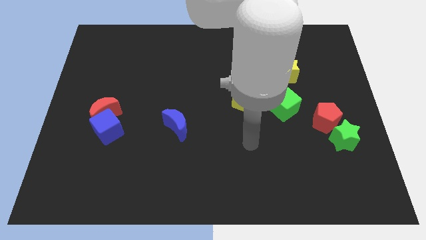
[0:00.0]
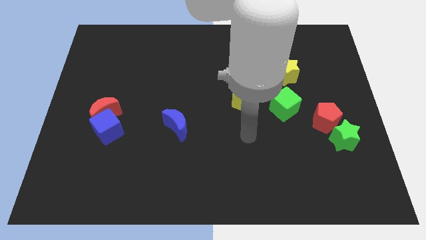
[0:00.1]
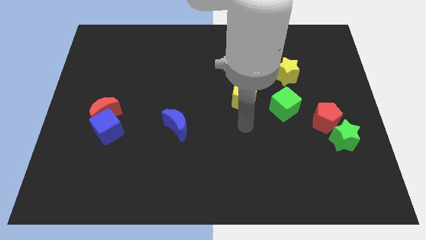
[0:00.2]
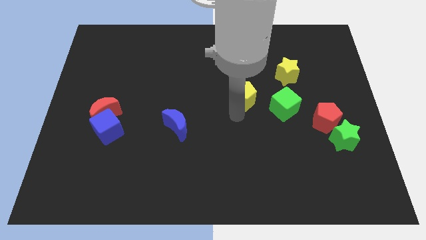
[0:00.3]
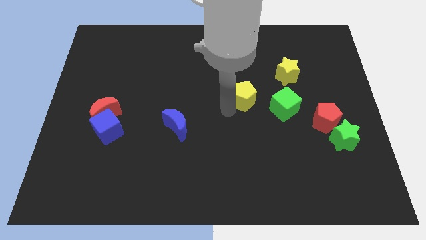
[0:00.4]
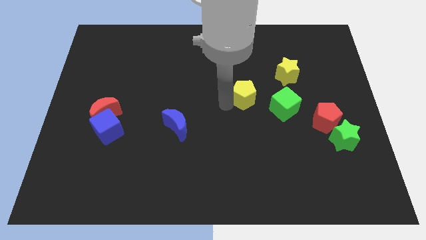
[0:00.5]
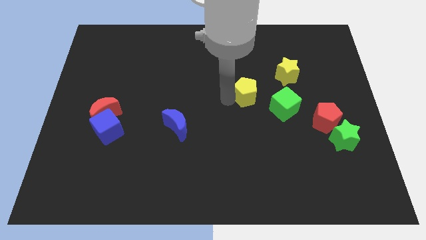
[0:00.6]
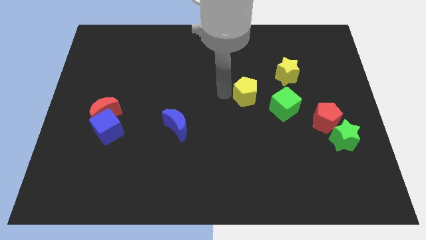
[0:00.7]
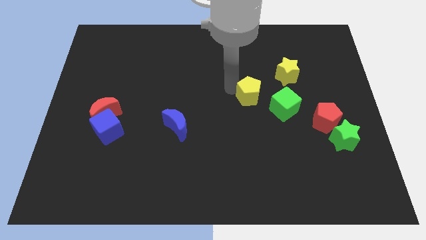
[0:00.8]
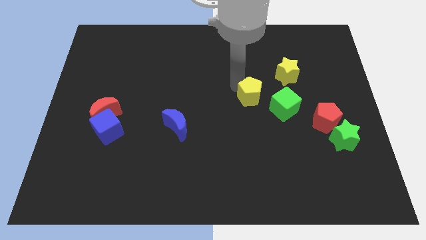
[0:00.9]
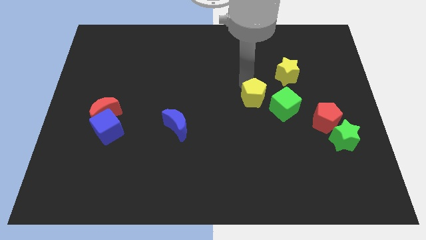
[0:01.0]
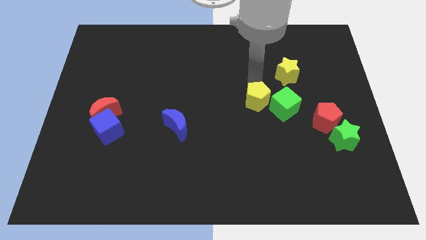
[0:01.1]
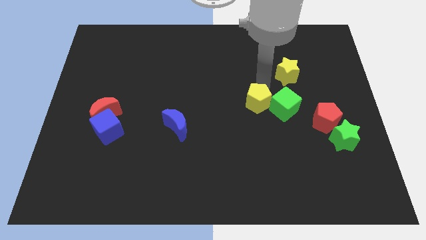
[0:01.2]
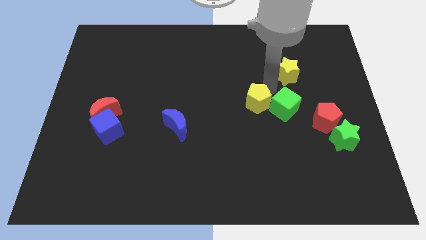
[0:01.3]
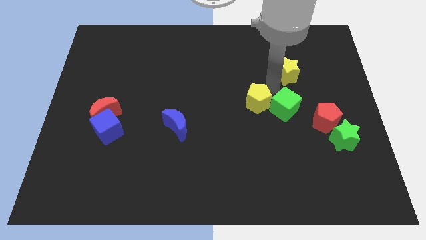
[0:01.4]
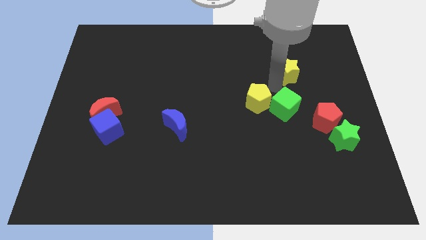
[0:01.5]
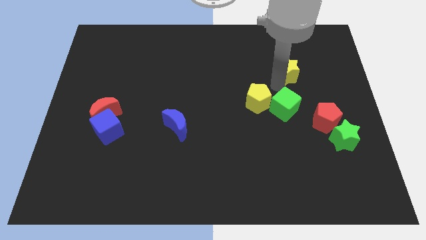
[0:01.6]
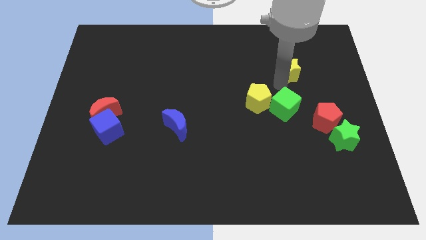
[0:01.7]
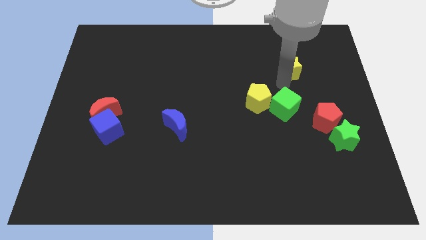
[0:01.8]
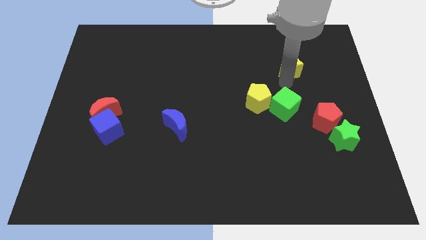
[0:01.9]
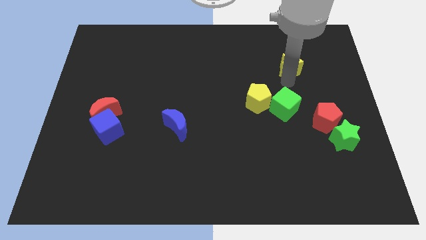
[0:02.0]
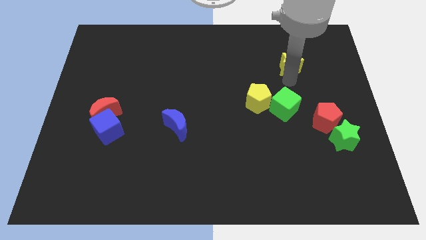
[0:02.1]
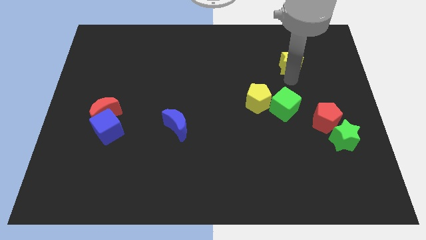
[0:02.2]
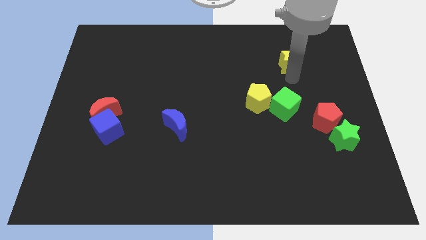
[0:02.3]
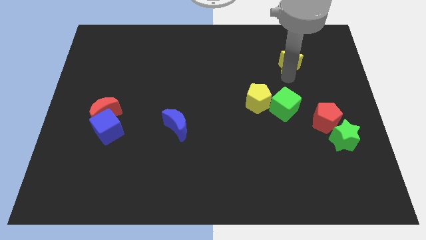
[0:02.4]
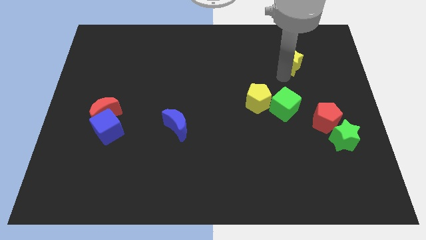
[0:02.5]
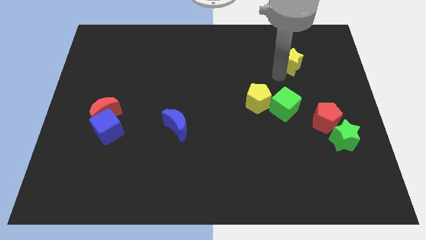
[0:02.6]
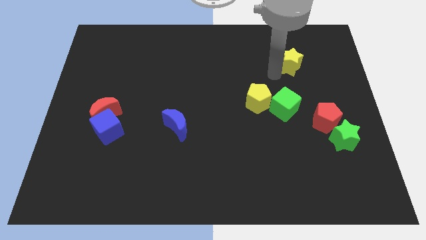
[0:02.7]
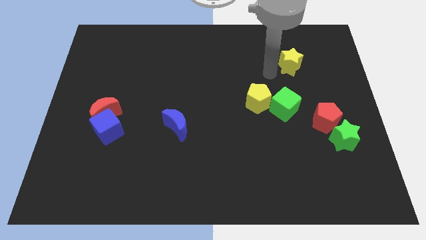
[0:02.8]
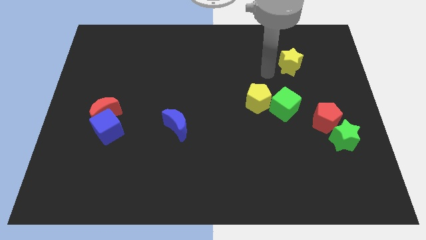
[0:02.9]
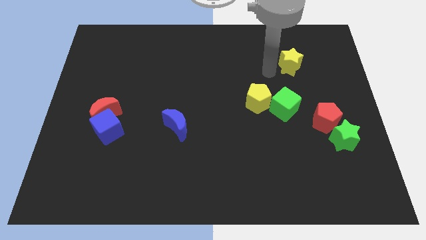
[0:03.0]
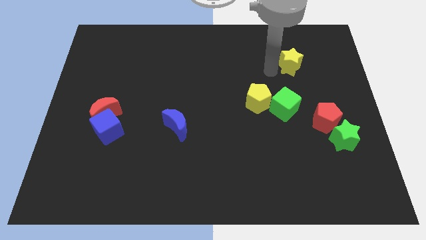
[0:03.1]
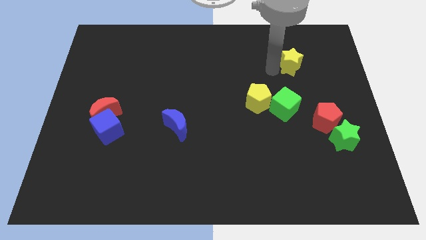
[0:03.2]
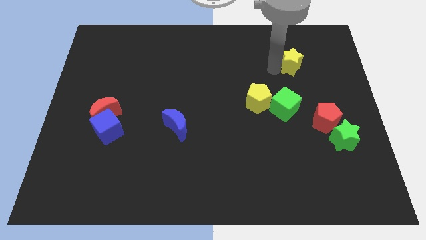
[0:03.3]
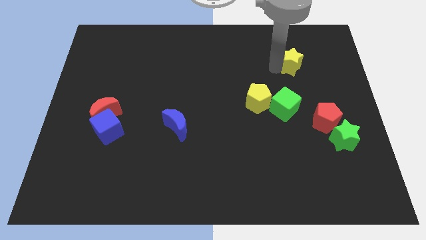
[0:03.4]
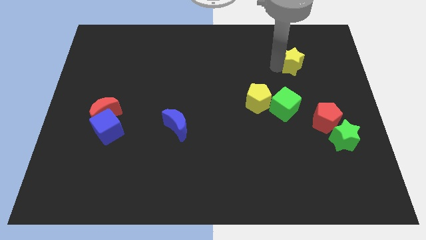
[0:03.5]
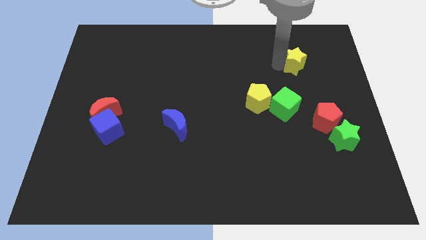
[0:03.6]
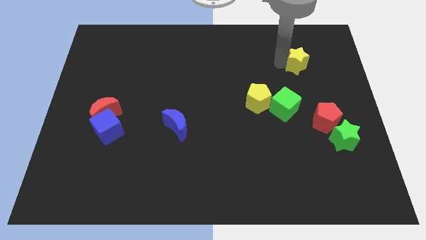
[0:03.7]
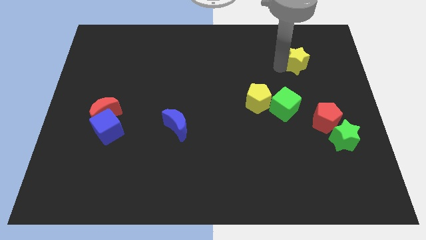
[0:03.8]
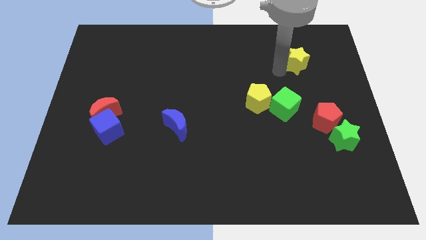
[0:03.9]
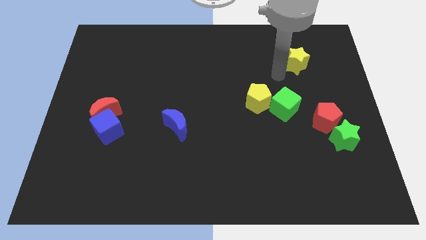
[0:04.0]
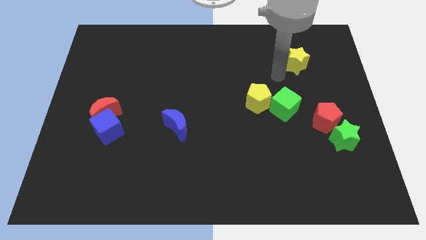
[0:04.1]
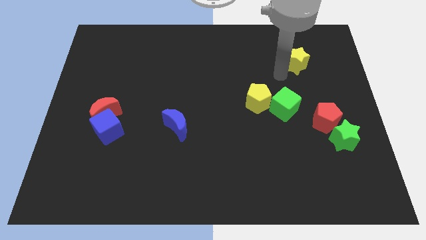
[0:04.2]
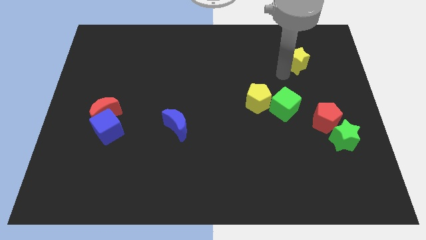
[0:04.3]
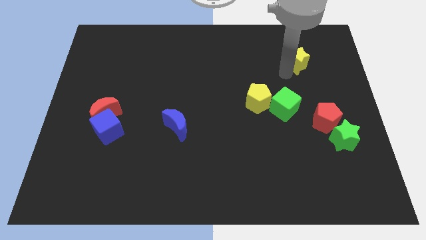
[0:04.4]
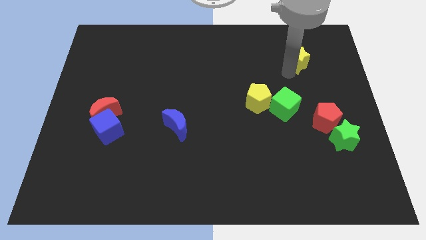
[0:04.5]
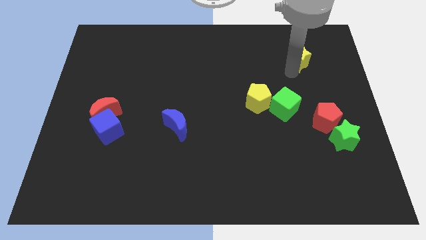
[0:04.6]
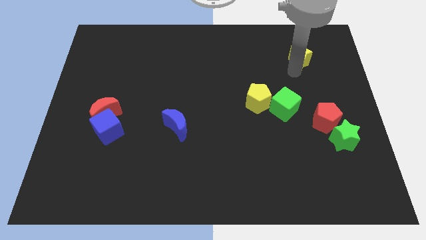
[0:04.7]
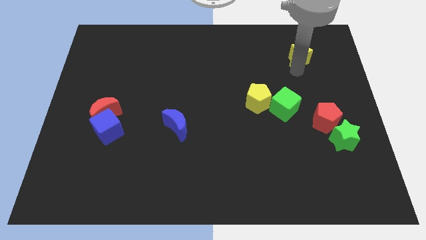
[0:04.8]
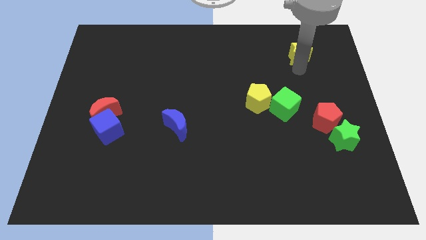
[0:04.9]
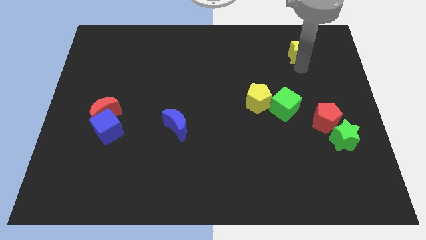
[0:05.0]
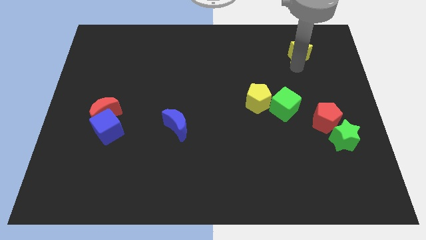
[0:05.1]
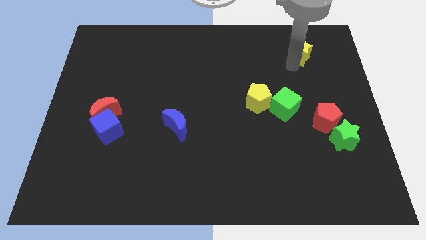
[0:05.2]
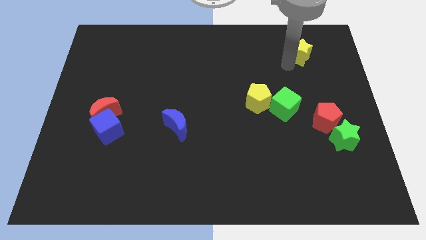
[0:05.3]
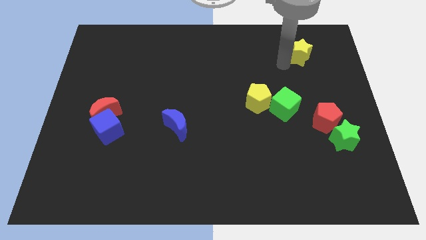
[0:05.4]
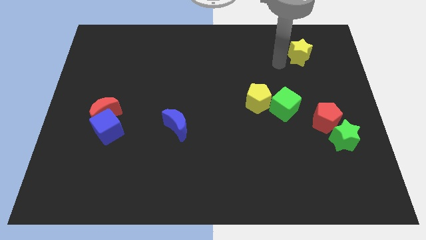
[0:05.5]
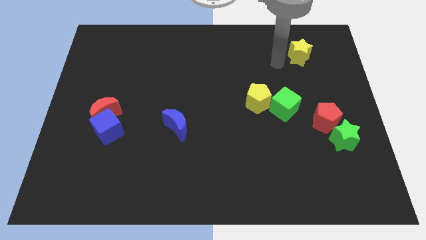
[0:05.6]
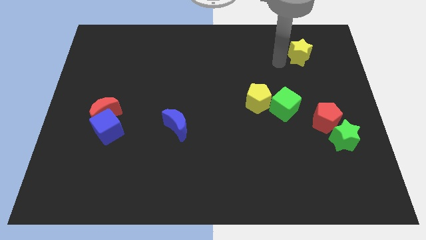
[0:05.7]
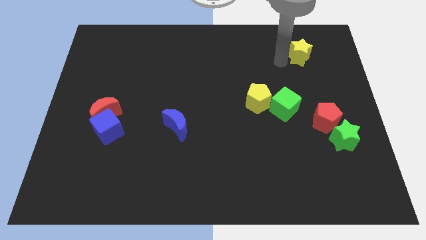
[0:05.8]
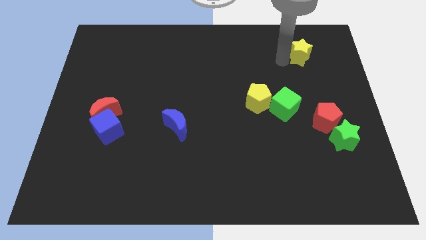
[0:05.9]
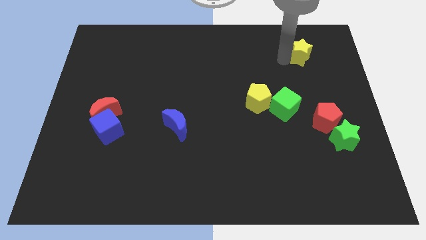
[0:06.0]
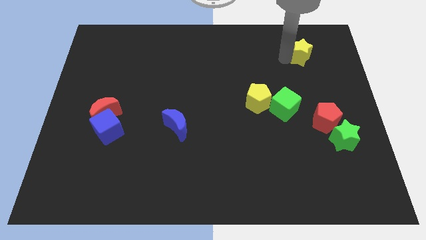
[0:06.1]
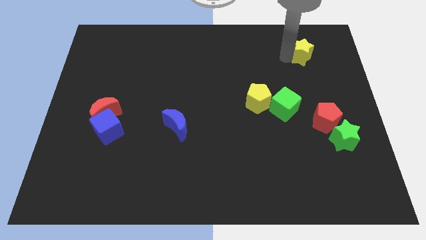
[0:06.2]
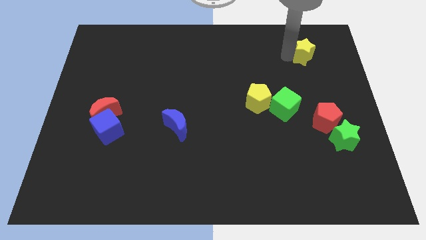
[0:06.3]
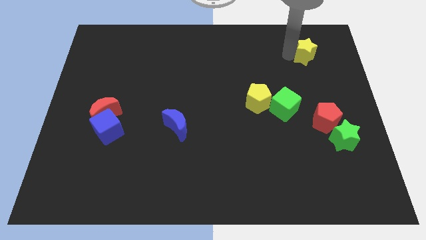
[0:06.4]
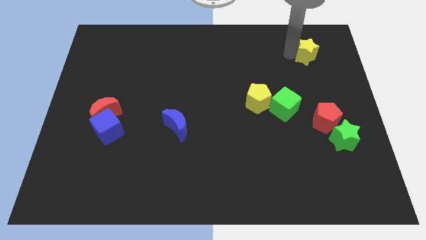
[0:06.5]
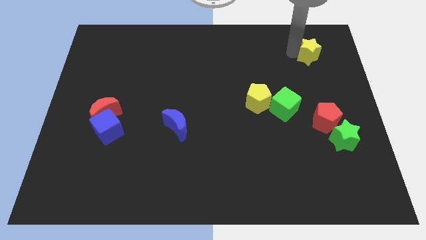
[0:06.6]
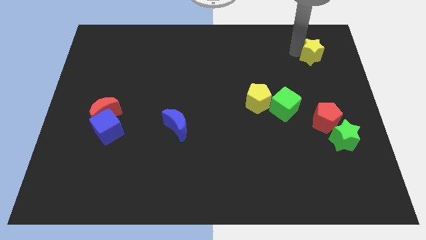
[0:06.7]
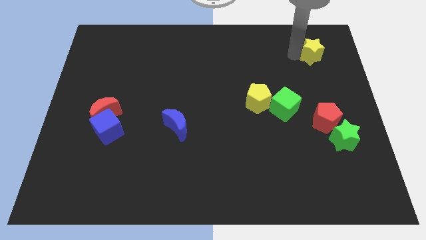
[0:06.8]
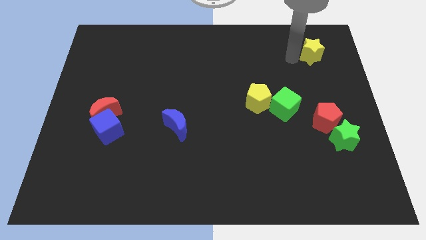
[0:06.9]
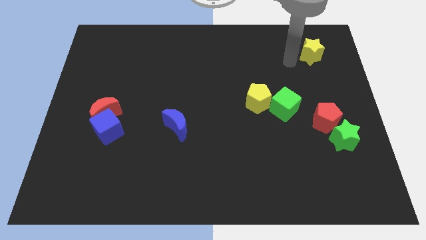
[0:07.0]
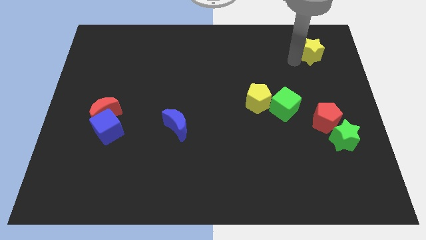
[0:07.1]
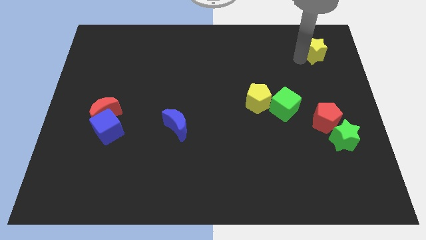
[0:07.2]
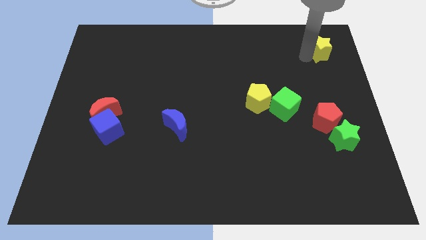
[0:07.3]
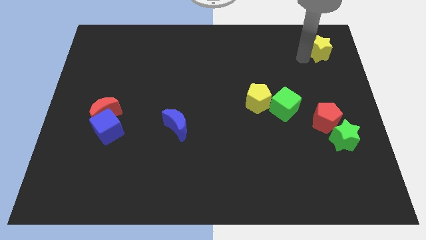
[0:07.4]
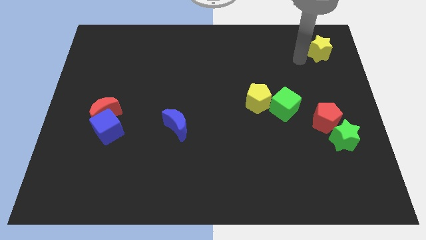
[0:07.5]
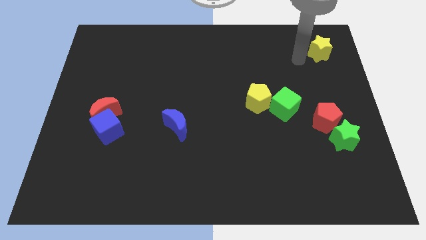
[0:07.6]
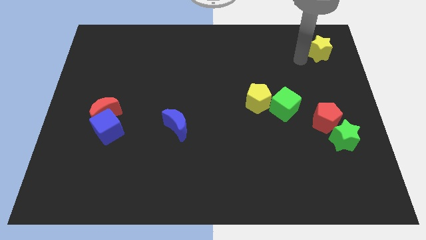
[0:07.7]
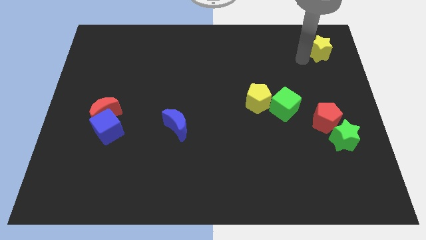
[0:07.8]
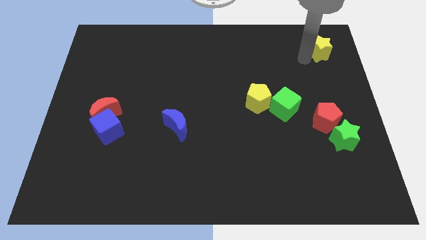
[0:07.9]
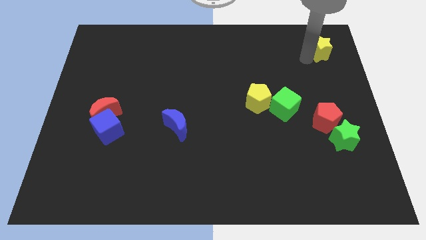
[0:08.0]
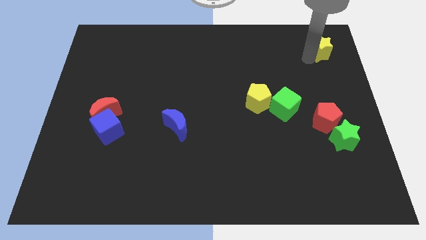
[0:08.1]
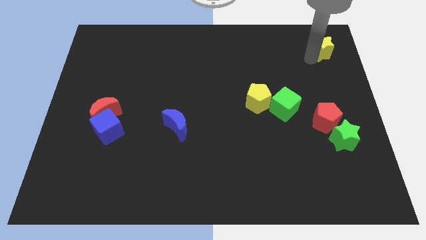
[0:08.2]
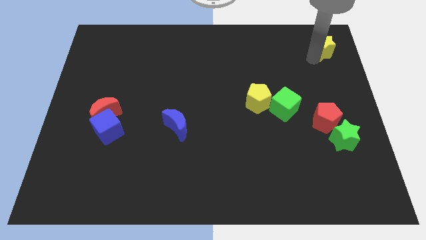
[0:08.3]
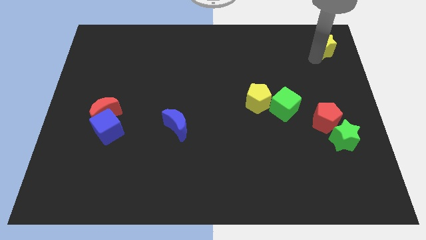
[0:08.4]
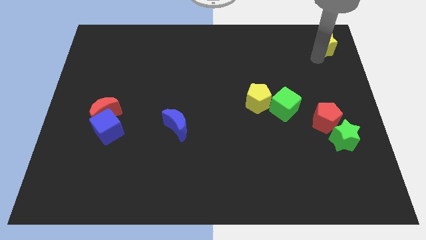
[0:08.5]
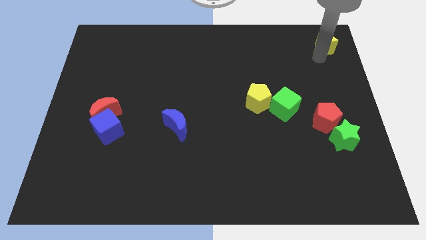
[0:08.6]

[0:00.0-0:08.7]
move the yellow star to the top right
